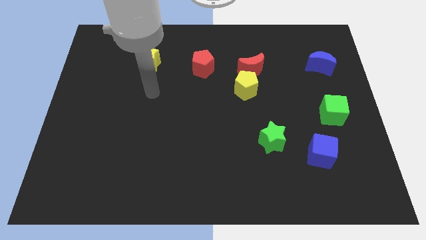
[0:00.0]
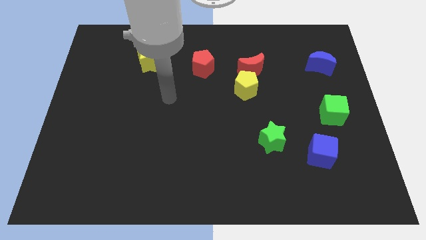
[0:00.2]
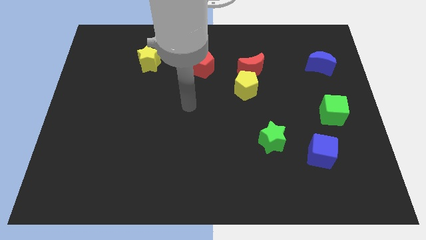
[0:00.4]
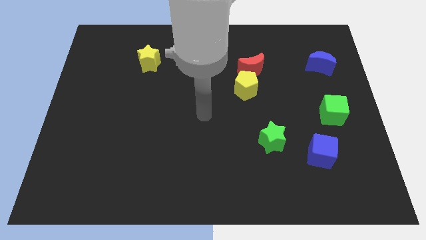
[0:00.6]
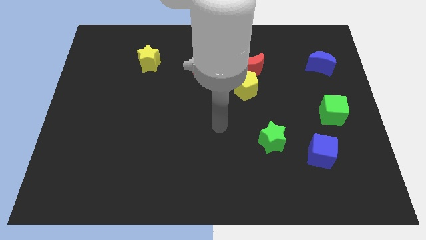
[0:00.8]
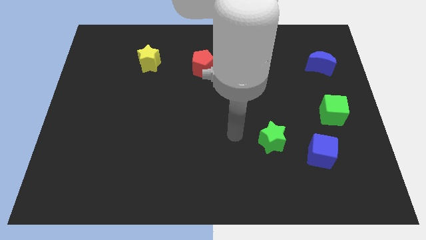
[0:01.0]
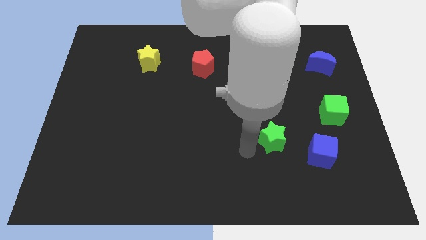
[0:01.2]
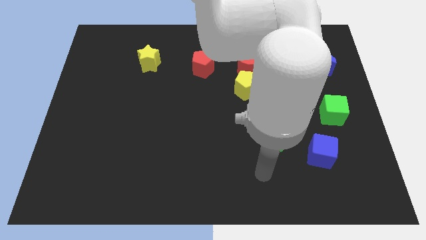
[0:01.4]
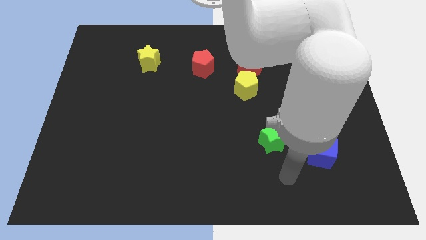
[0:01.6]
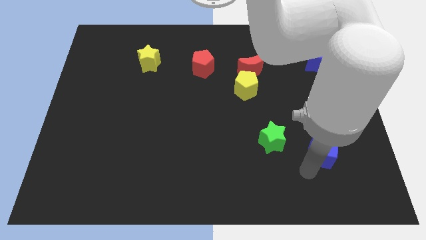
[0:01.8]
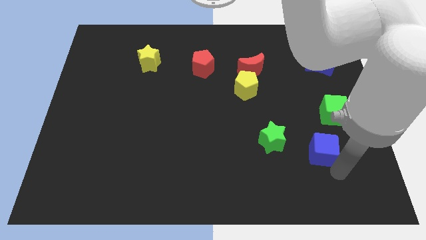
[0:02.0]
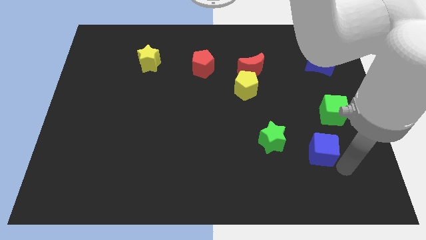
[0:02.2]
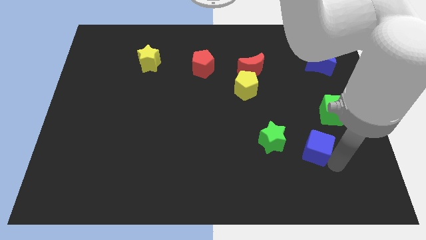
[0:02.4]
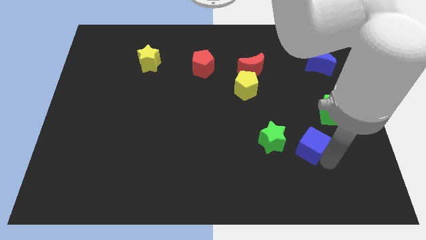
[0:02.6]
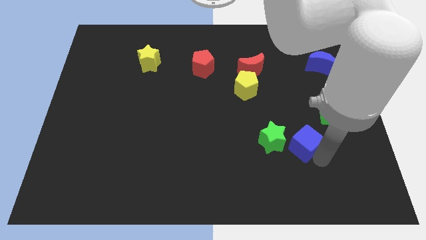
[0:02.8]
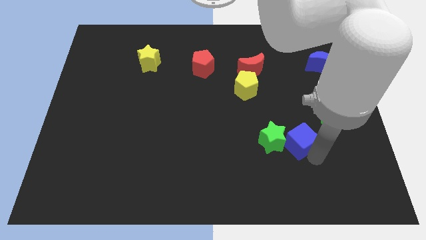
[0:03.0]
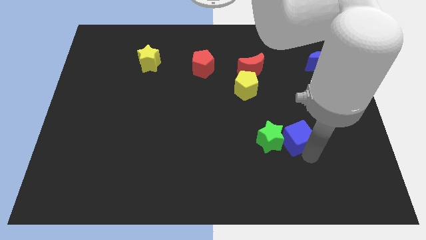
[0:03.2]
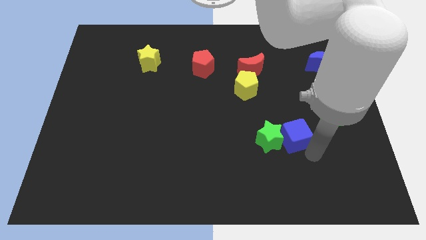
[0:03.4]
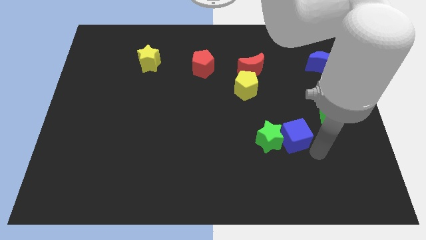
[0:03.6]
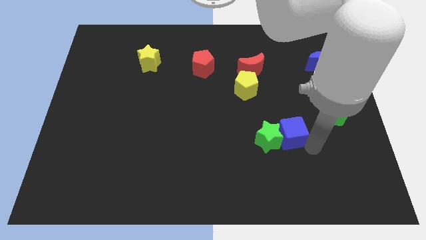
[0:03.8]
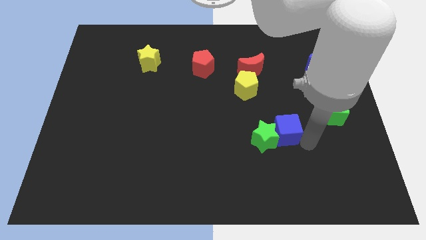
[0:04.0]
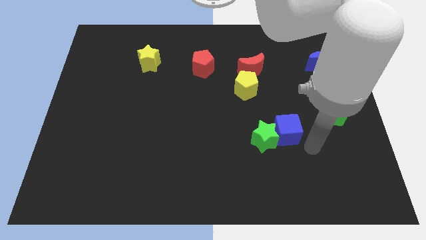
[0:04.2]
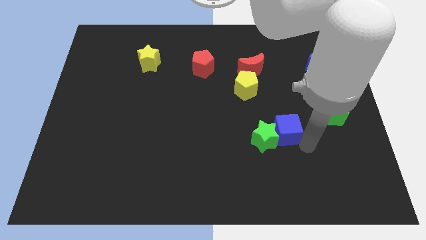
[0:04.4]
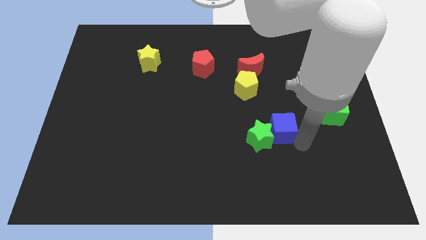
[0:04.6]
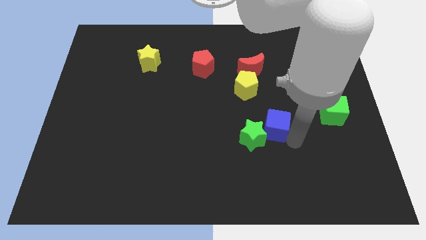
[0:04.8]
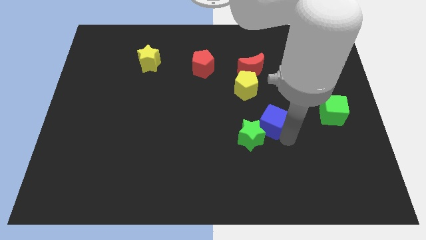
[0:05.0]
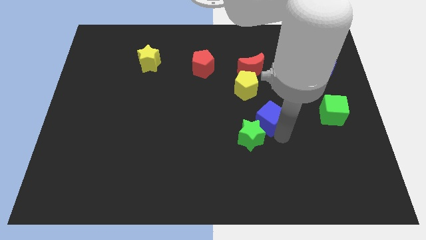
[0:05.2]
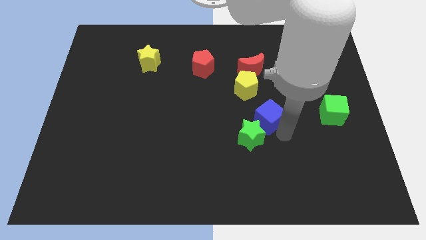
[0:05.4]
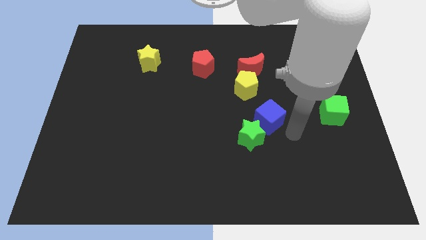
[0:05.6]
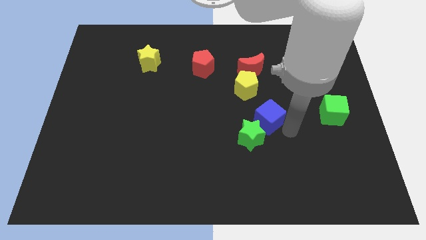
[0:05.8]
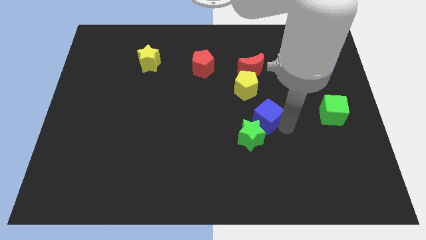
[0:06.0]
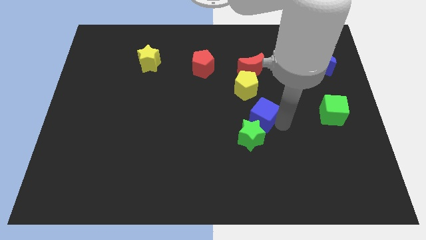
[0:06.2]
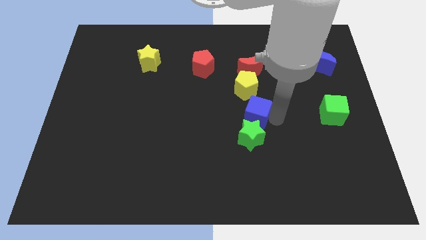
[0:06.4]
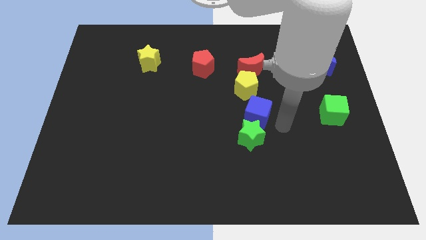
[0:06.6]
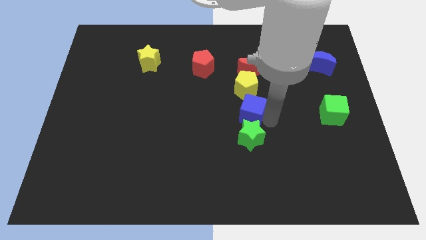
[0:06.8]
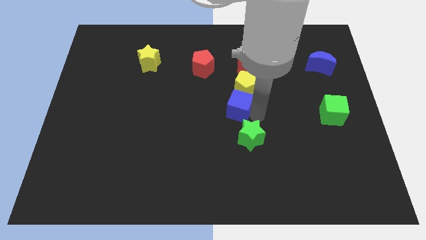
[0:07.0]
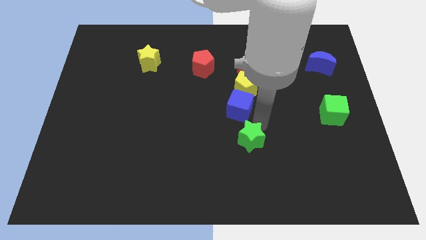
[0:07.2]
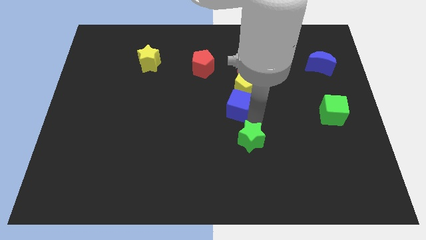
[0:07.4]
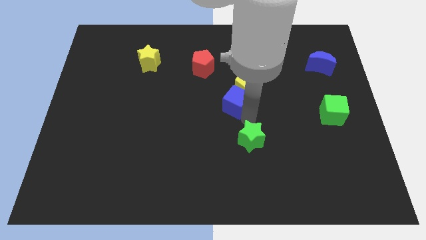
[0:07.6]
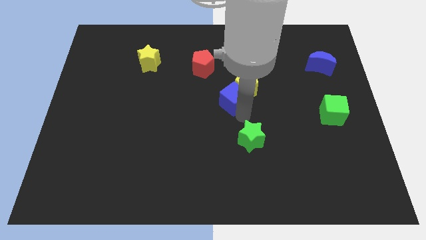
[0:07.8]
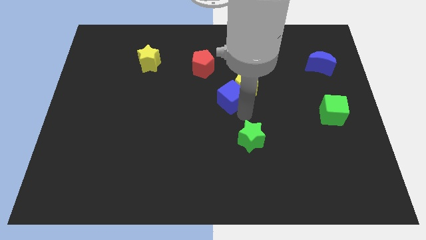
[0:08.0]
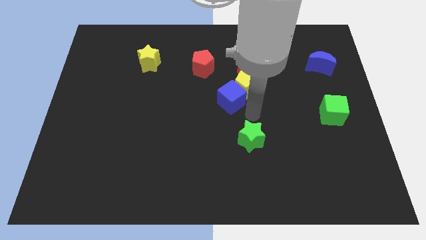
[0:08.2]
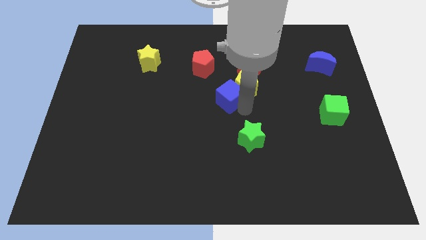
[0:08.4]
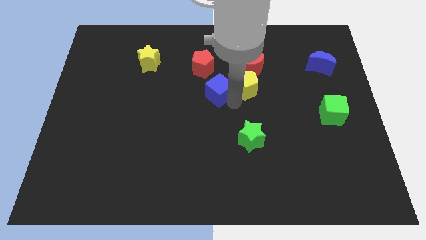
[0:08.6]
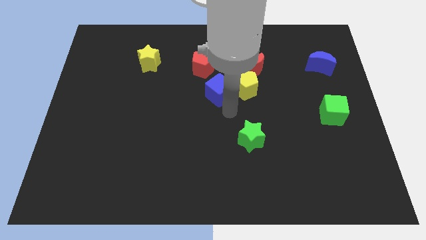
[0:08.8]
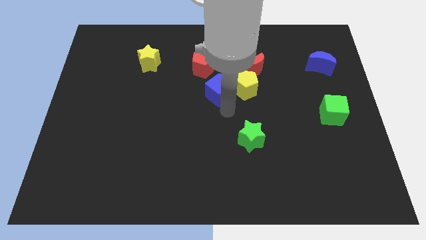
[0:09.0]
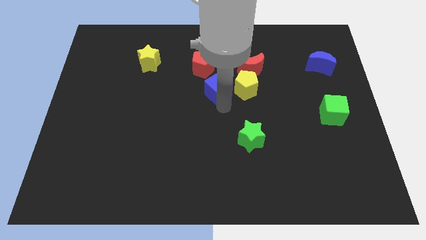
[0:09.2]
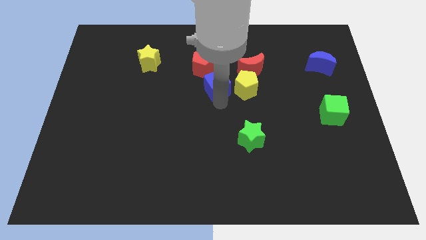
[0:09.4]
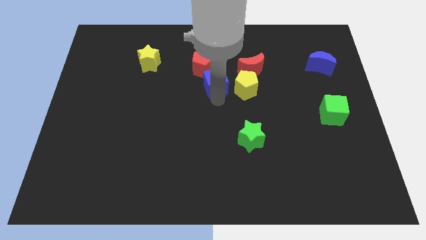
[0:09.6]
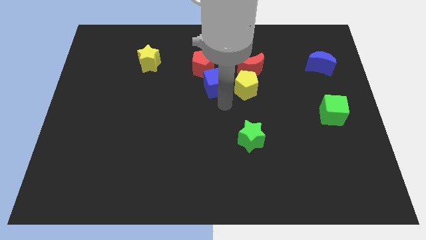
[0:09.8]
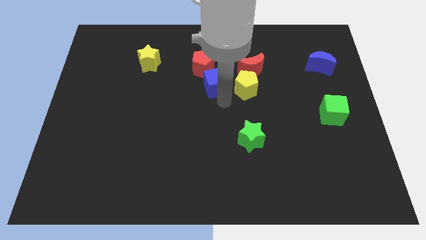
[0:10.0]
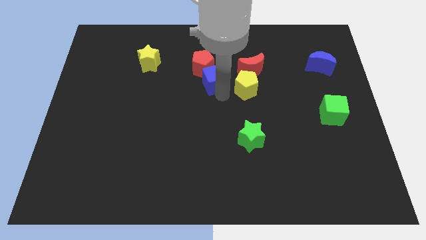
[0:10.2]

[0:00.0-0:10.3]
put the blue cube next to the red pentagon
